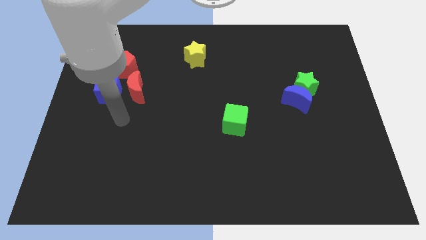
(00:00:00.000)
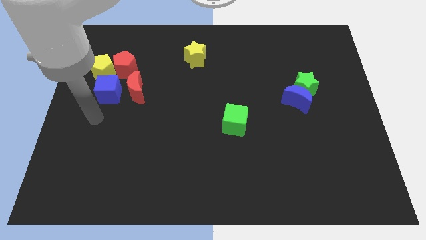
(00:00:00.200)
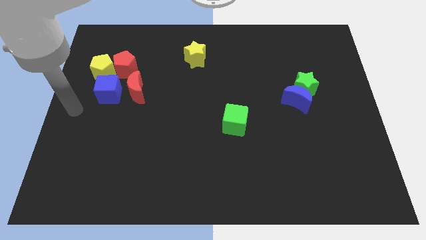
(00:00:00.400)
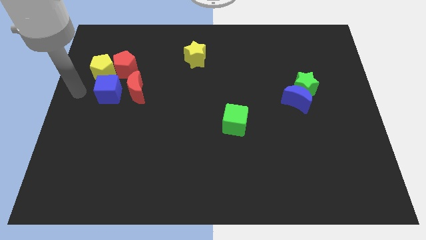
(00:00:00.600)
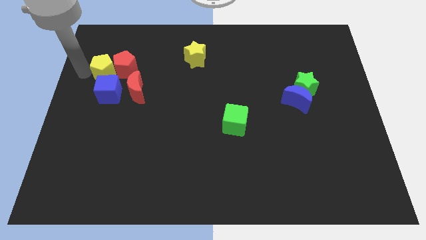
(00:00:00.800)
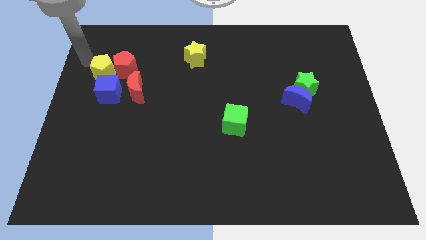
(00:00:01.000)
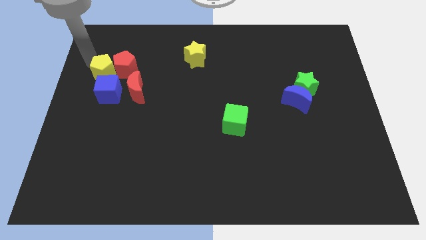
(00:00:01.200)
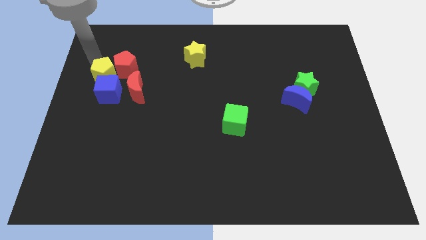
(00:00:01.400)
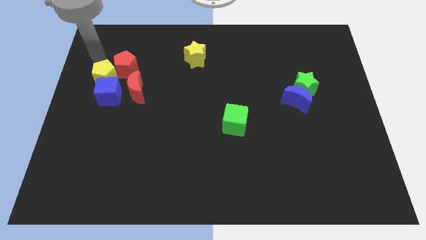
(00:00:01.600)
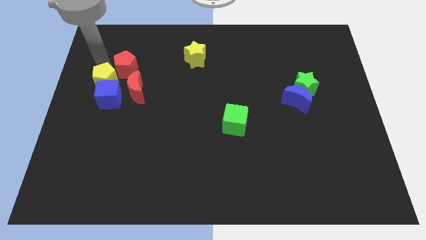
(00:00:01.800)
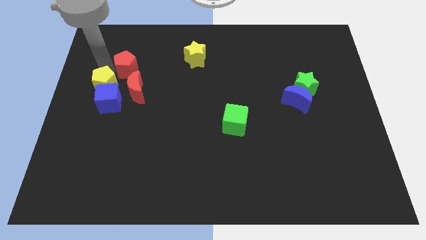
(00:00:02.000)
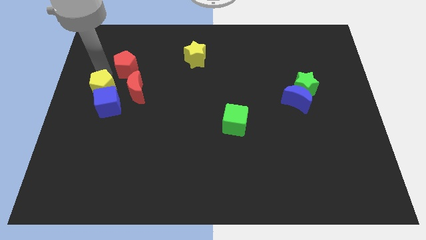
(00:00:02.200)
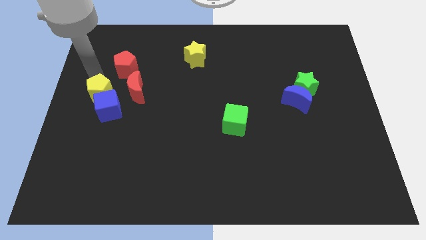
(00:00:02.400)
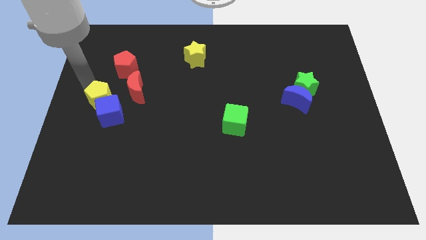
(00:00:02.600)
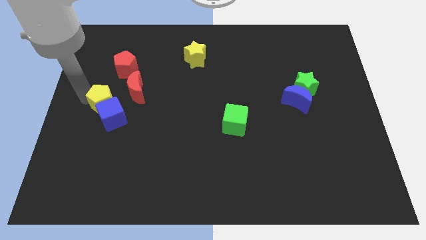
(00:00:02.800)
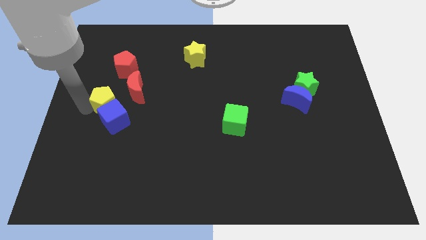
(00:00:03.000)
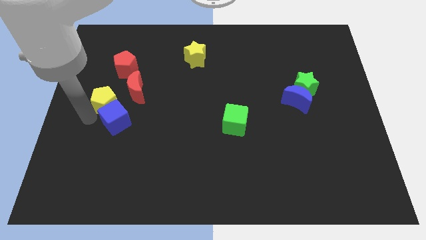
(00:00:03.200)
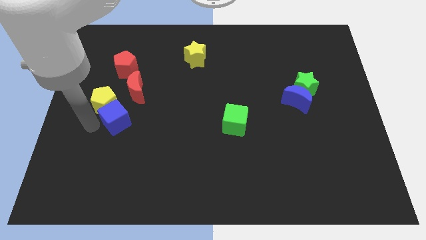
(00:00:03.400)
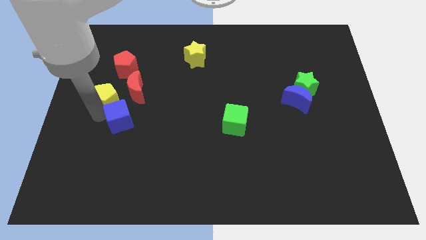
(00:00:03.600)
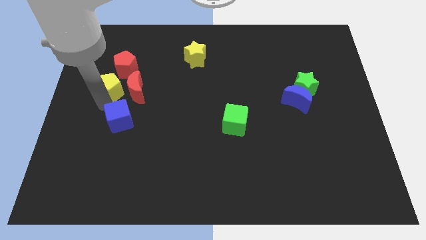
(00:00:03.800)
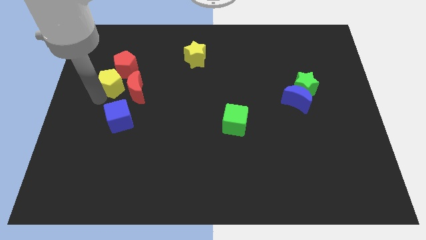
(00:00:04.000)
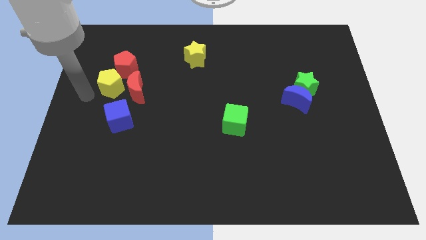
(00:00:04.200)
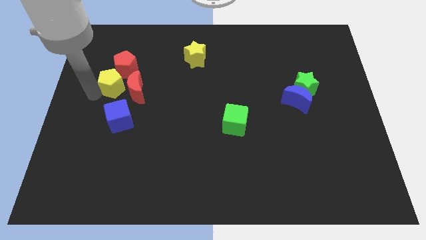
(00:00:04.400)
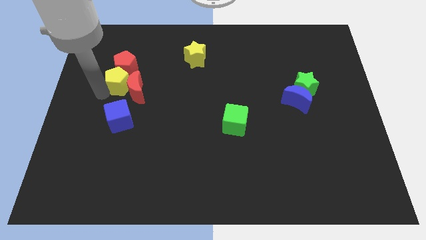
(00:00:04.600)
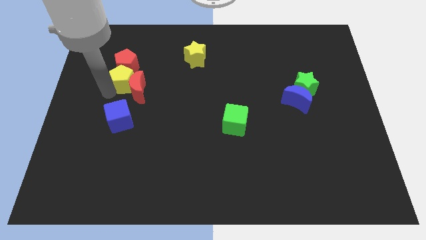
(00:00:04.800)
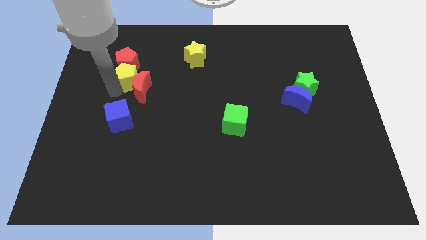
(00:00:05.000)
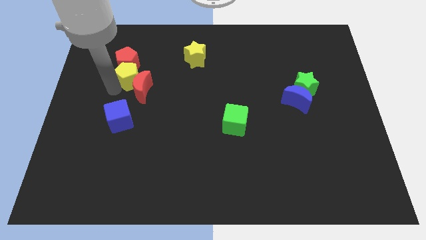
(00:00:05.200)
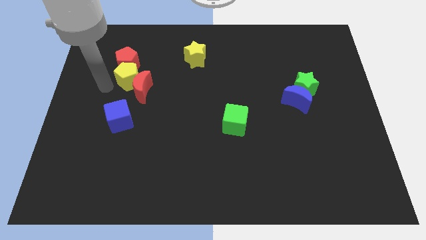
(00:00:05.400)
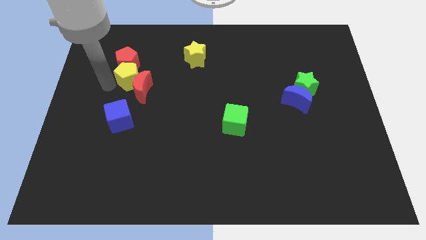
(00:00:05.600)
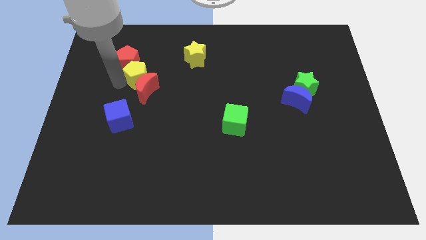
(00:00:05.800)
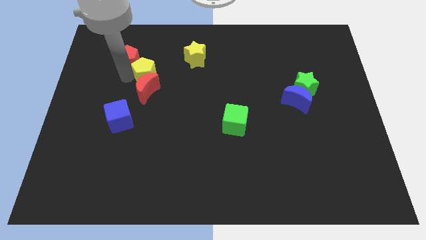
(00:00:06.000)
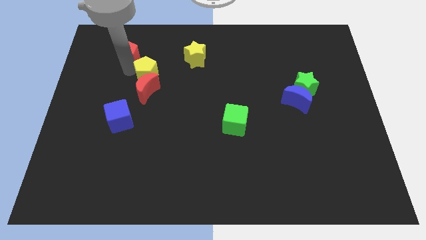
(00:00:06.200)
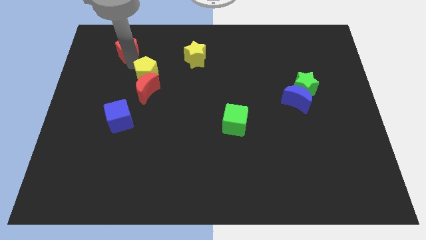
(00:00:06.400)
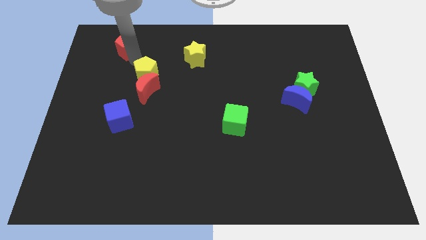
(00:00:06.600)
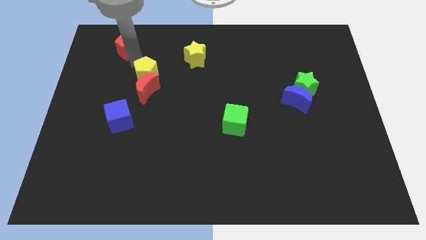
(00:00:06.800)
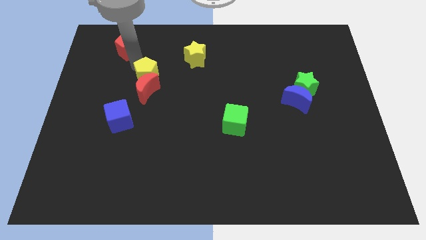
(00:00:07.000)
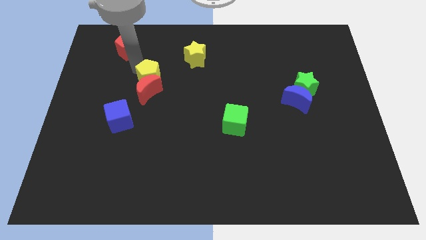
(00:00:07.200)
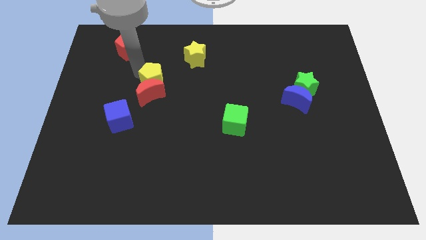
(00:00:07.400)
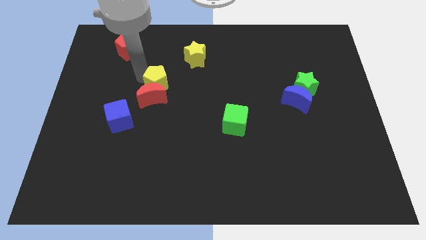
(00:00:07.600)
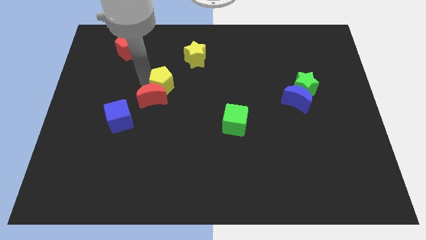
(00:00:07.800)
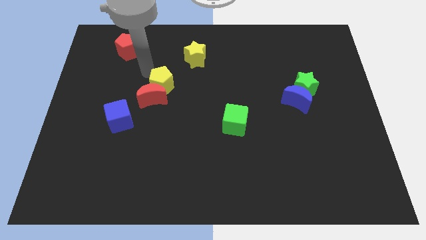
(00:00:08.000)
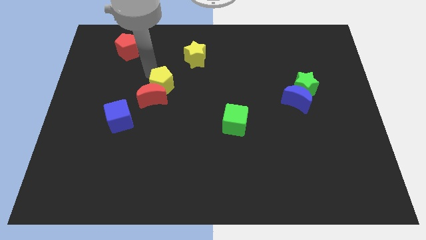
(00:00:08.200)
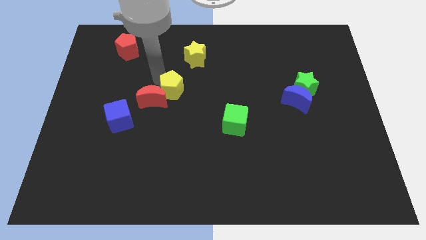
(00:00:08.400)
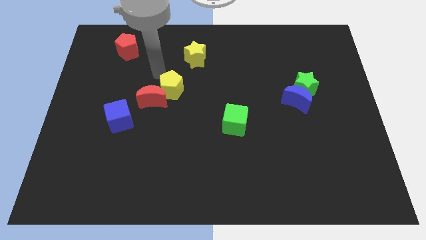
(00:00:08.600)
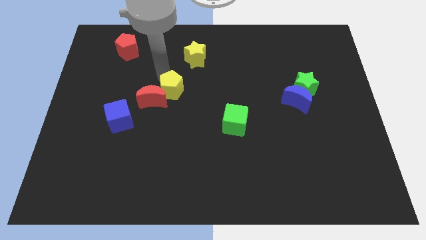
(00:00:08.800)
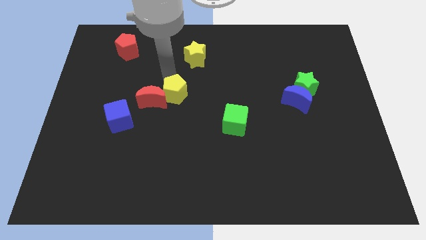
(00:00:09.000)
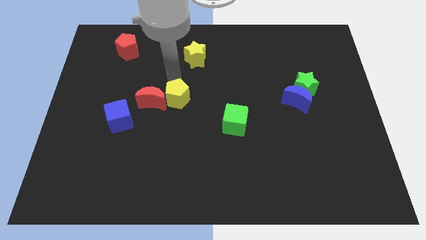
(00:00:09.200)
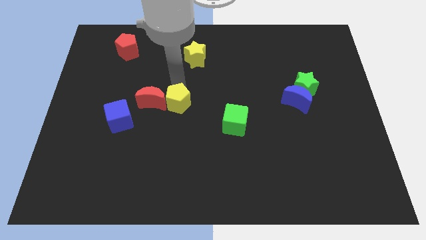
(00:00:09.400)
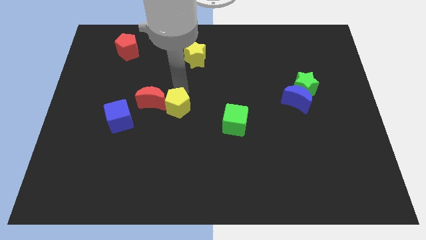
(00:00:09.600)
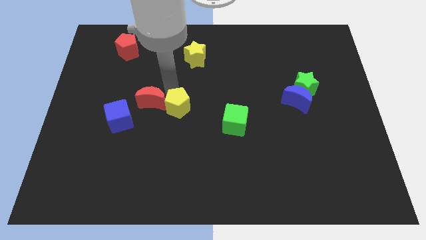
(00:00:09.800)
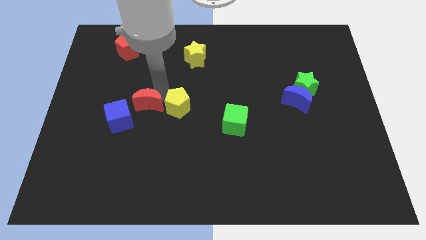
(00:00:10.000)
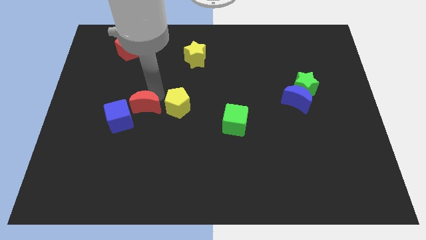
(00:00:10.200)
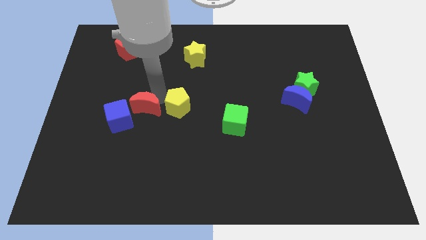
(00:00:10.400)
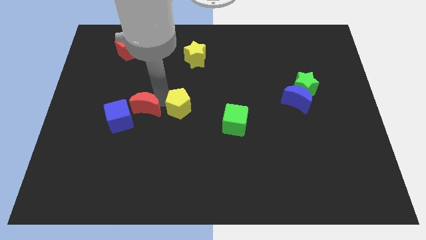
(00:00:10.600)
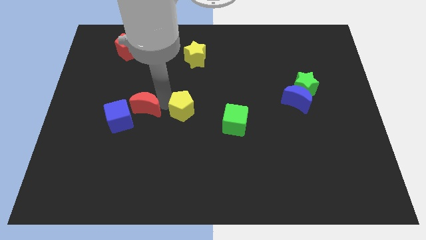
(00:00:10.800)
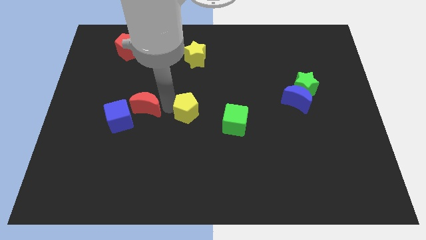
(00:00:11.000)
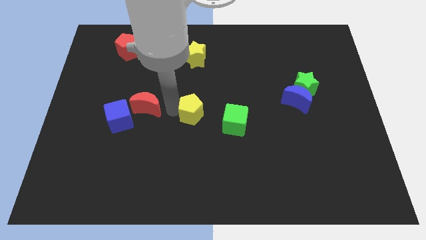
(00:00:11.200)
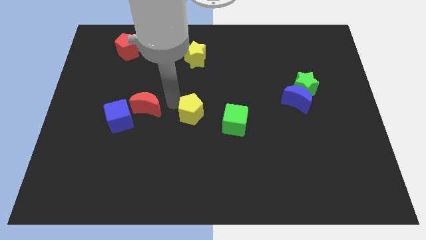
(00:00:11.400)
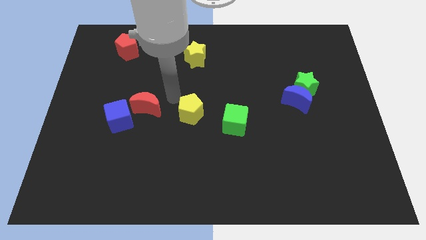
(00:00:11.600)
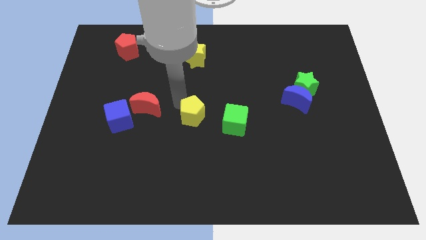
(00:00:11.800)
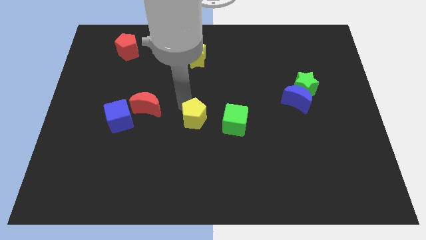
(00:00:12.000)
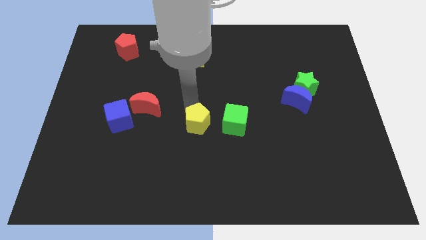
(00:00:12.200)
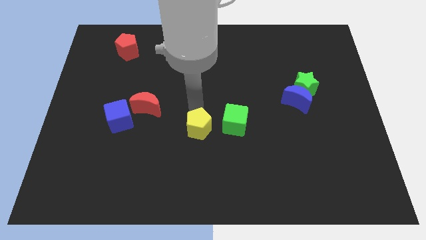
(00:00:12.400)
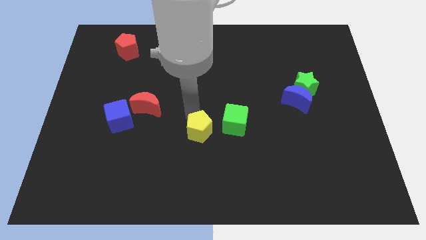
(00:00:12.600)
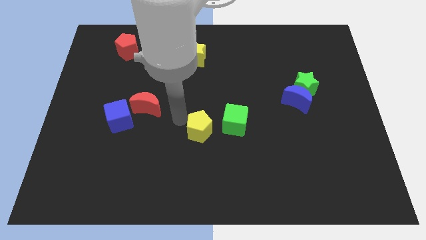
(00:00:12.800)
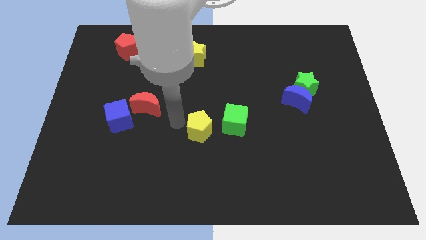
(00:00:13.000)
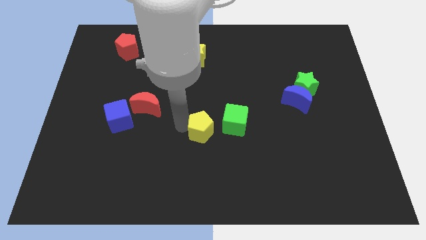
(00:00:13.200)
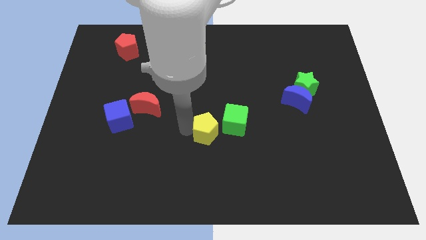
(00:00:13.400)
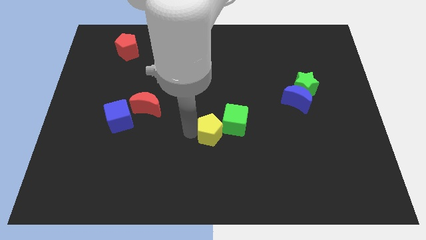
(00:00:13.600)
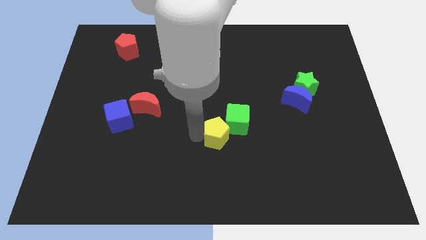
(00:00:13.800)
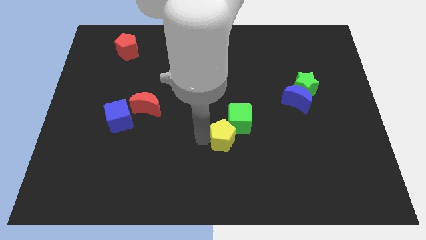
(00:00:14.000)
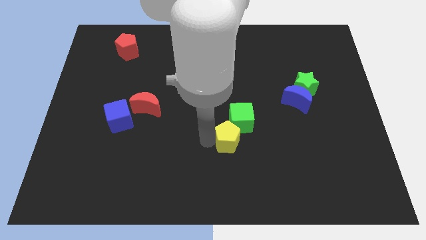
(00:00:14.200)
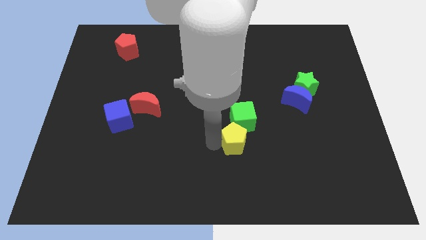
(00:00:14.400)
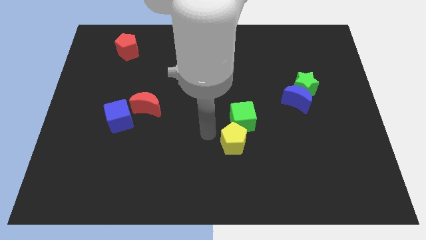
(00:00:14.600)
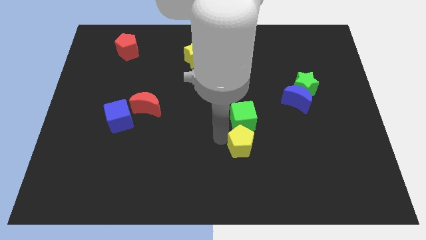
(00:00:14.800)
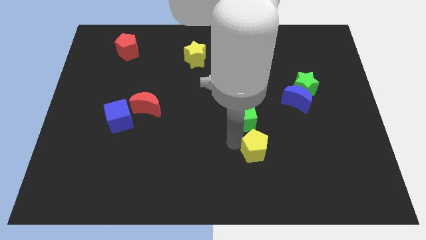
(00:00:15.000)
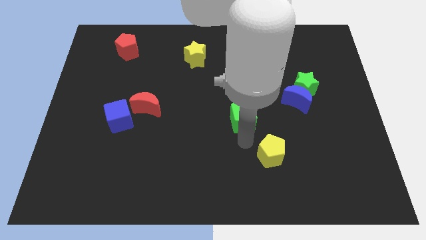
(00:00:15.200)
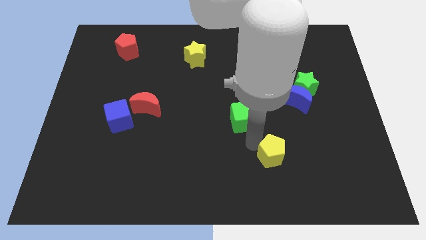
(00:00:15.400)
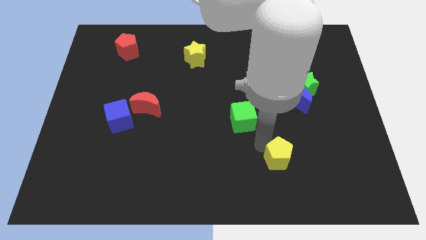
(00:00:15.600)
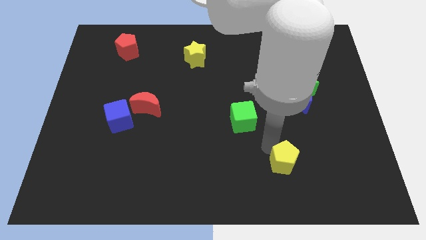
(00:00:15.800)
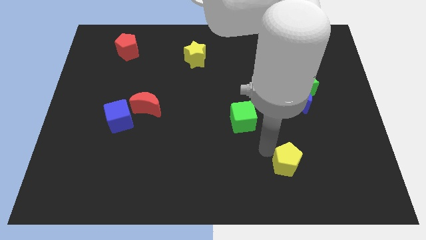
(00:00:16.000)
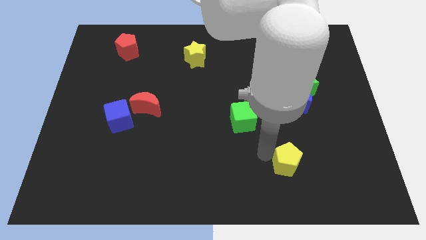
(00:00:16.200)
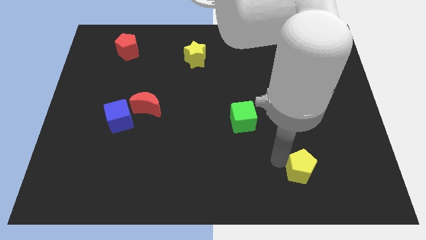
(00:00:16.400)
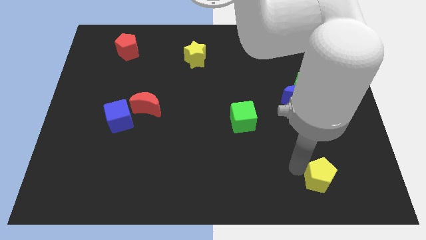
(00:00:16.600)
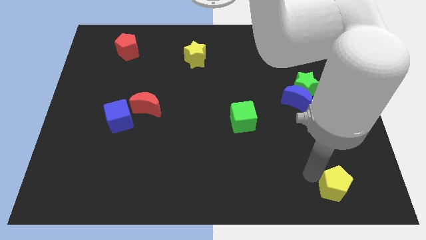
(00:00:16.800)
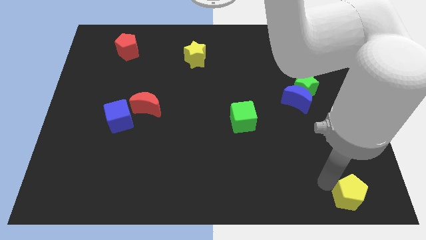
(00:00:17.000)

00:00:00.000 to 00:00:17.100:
slide the yellow pentagon to the bottom right corner
